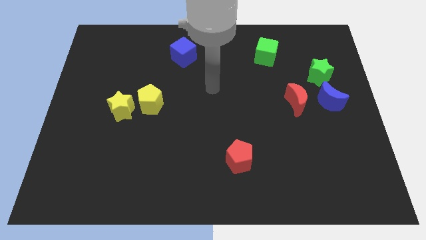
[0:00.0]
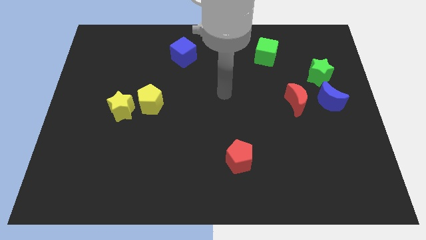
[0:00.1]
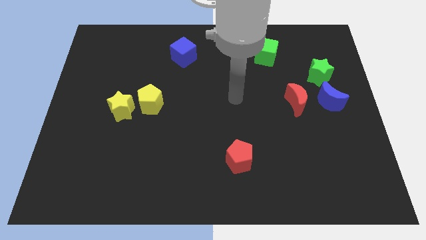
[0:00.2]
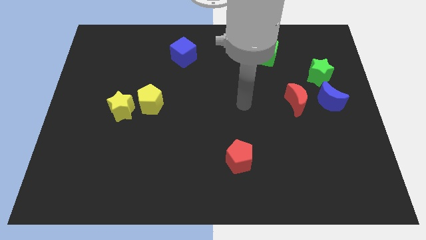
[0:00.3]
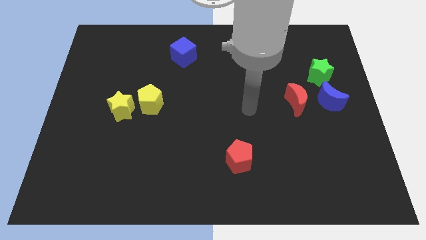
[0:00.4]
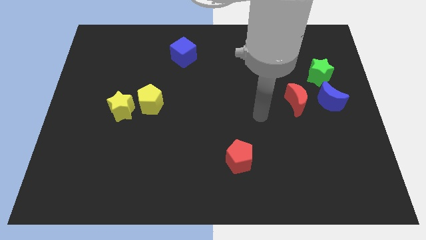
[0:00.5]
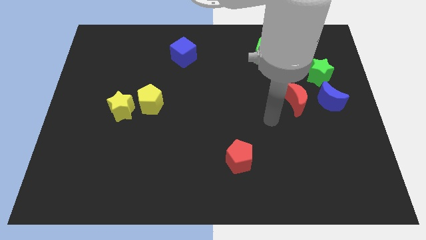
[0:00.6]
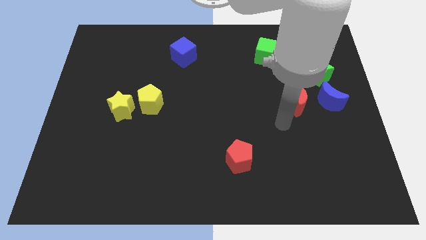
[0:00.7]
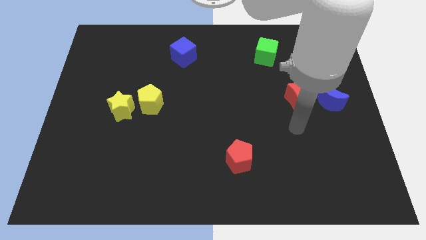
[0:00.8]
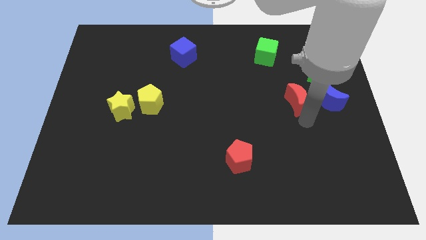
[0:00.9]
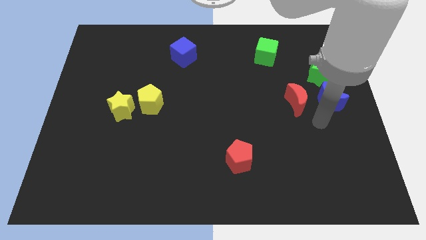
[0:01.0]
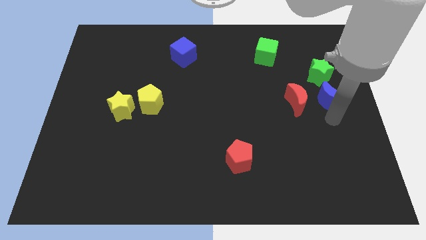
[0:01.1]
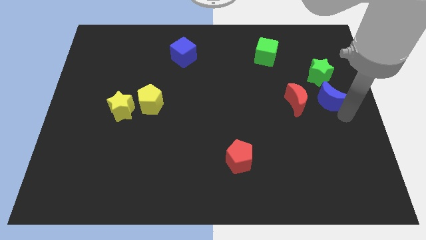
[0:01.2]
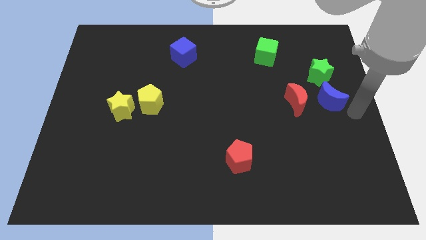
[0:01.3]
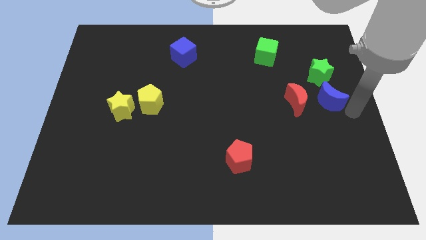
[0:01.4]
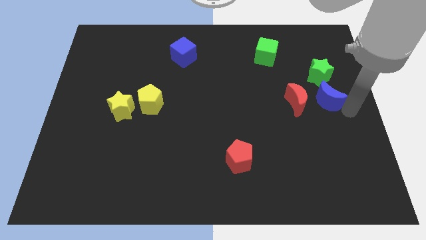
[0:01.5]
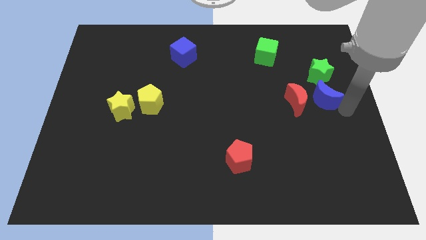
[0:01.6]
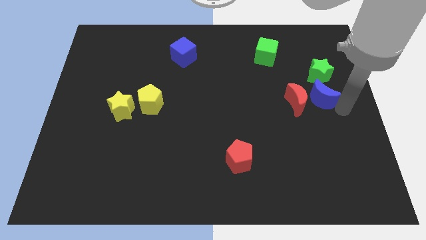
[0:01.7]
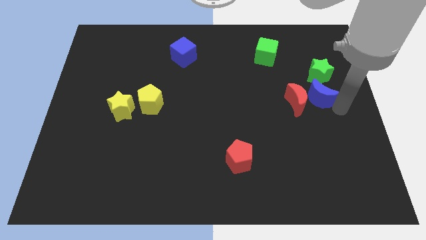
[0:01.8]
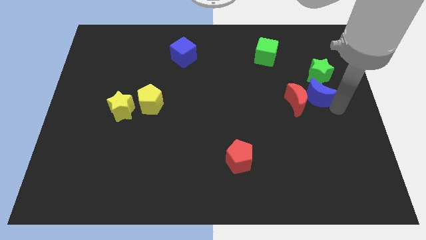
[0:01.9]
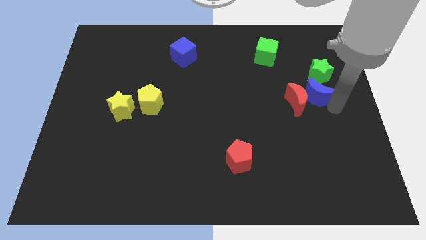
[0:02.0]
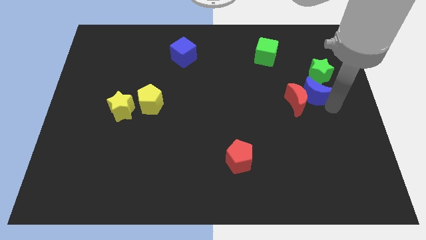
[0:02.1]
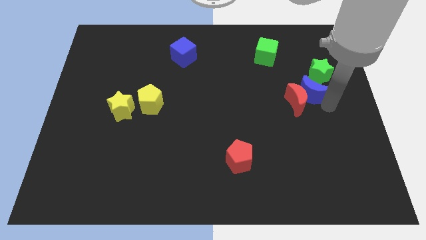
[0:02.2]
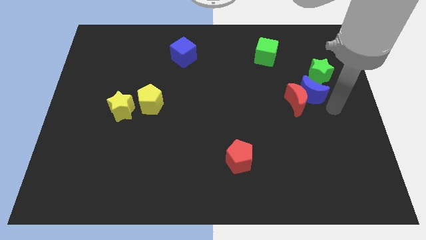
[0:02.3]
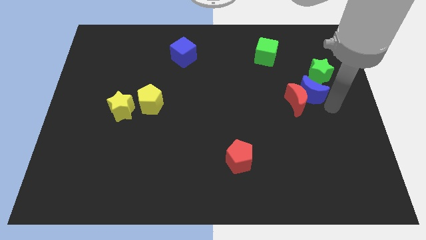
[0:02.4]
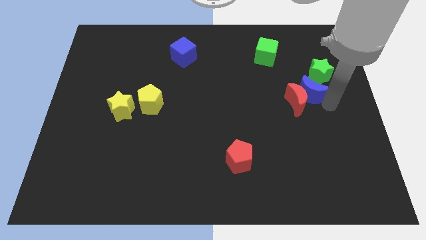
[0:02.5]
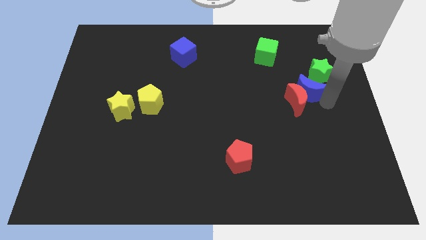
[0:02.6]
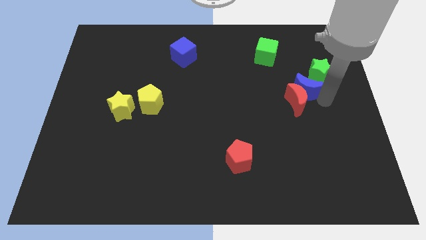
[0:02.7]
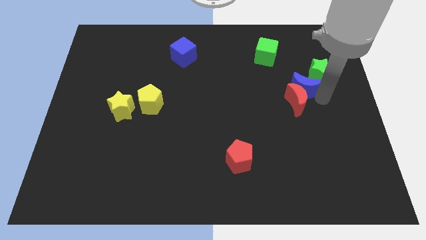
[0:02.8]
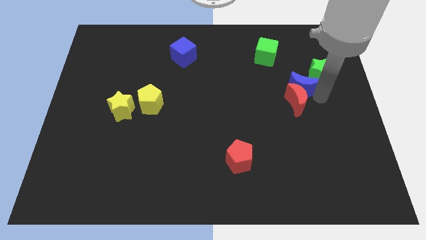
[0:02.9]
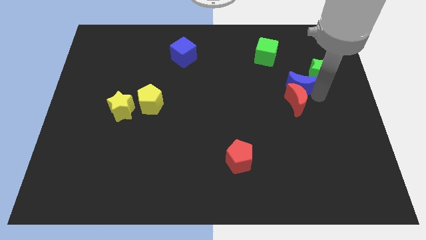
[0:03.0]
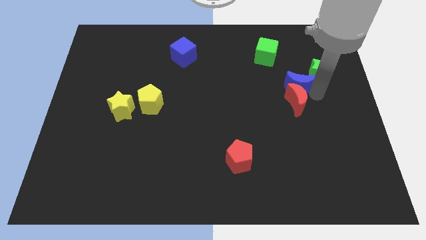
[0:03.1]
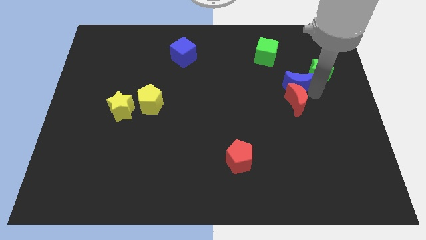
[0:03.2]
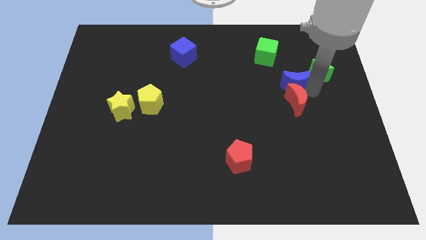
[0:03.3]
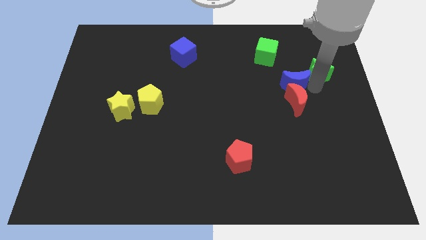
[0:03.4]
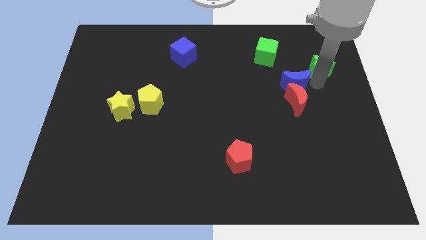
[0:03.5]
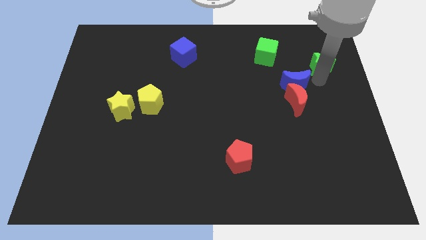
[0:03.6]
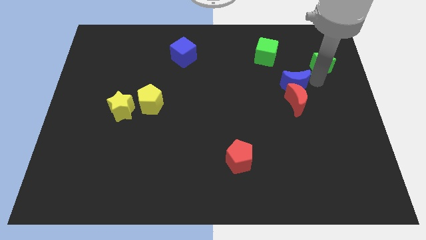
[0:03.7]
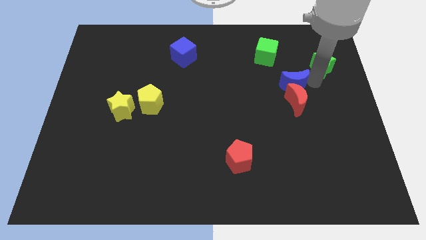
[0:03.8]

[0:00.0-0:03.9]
push the blue moon somewhat to the left

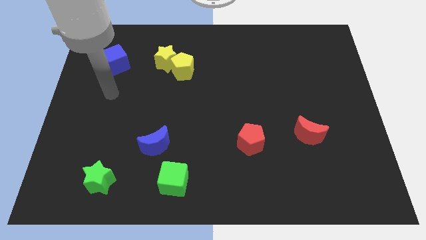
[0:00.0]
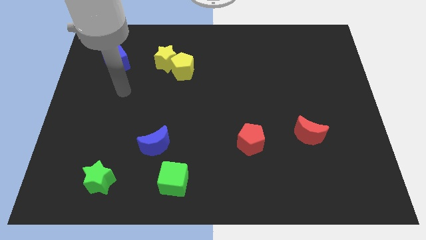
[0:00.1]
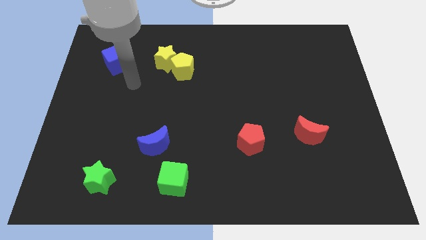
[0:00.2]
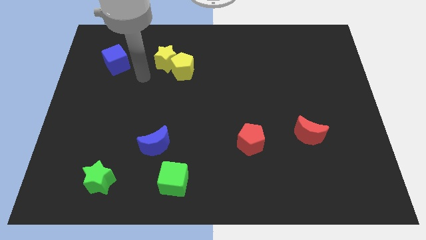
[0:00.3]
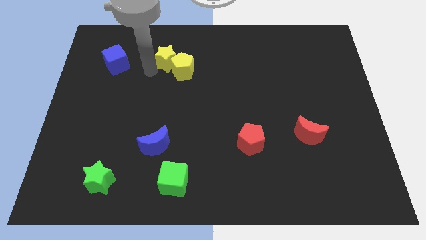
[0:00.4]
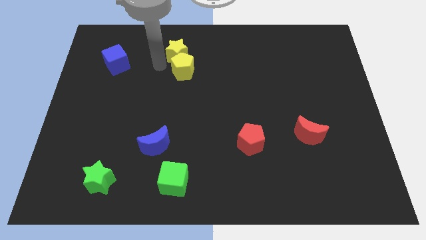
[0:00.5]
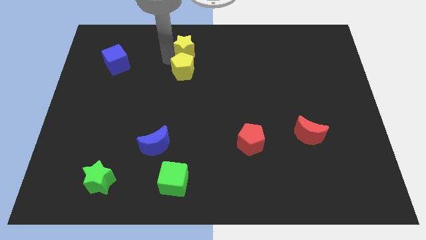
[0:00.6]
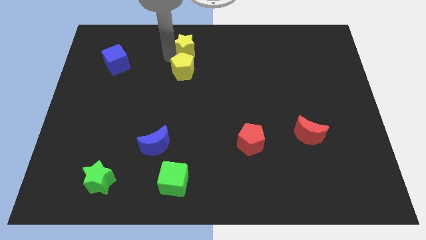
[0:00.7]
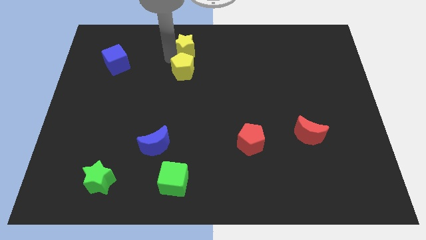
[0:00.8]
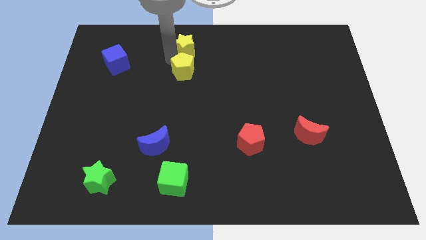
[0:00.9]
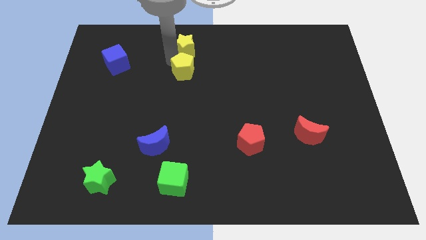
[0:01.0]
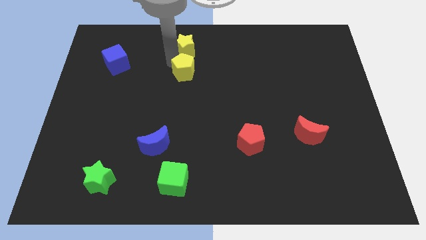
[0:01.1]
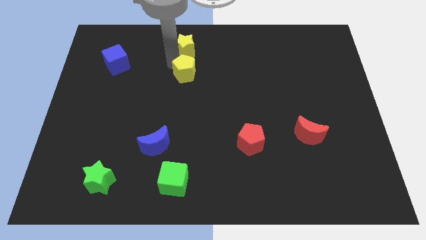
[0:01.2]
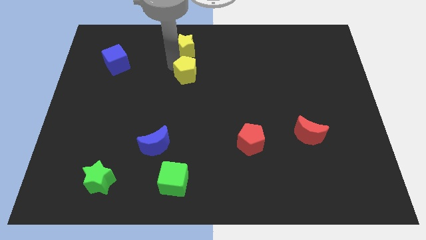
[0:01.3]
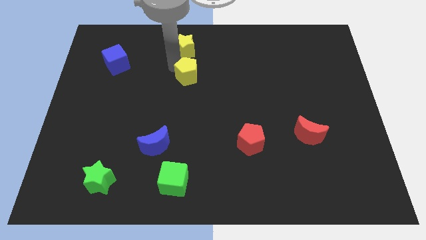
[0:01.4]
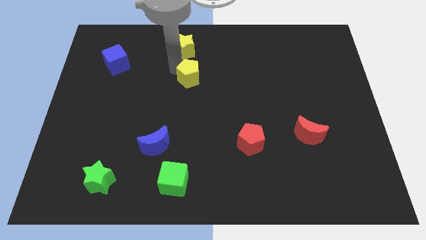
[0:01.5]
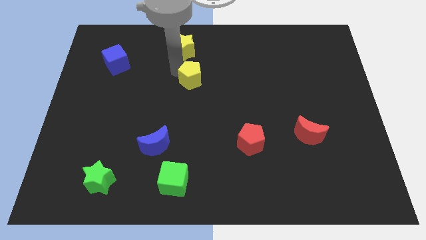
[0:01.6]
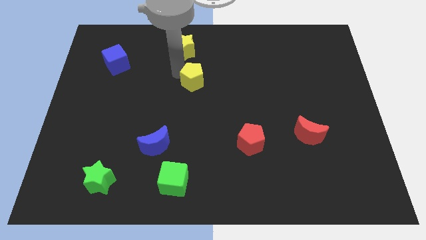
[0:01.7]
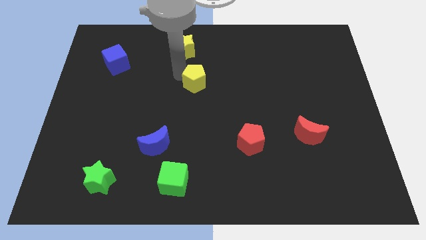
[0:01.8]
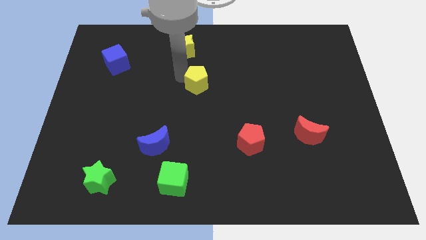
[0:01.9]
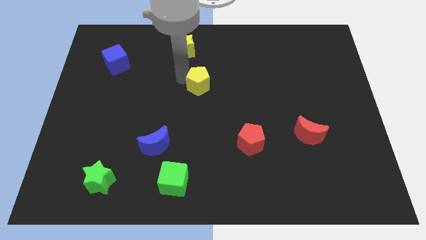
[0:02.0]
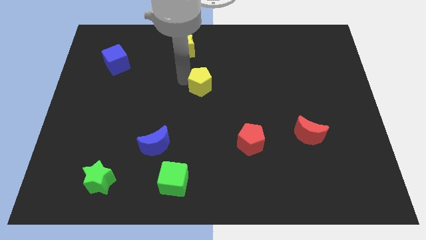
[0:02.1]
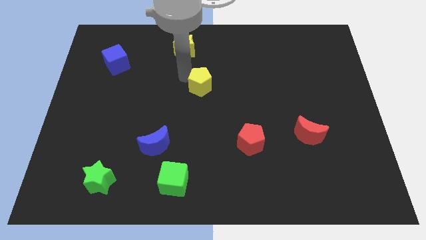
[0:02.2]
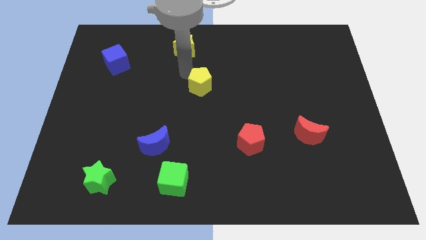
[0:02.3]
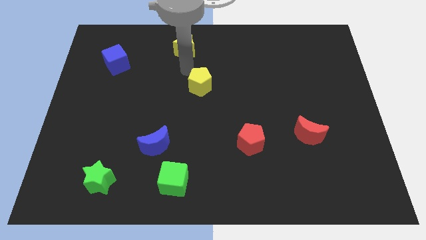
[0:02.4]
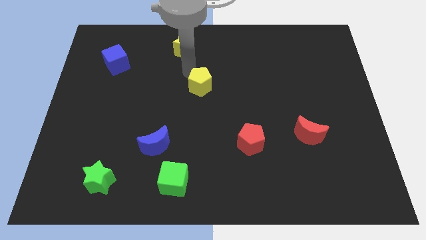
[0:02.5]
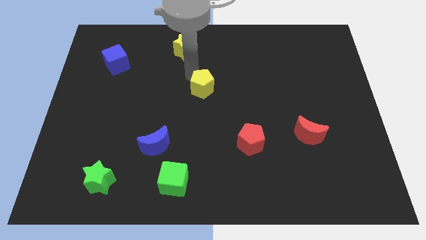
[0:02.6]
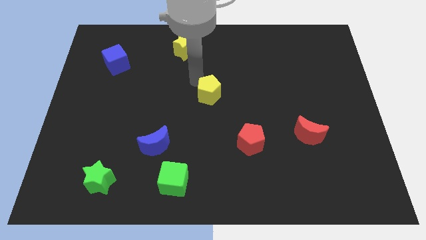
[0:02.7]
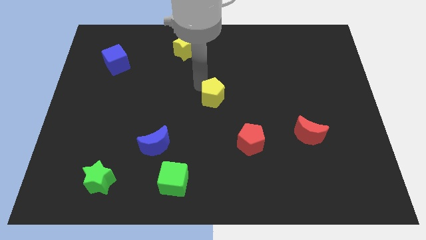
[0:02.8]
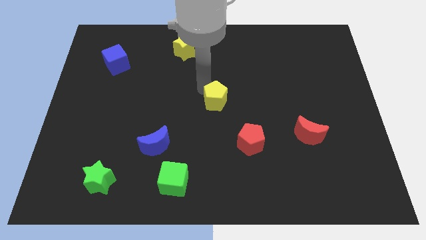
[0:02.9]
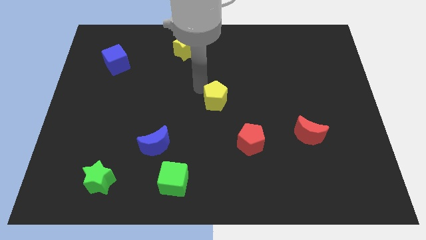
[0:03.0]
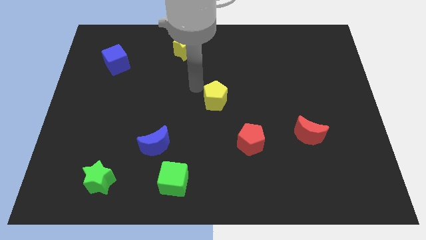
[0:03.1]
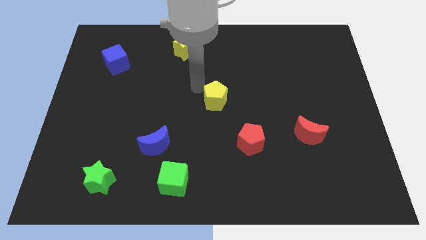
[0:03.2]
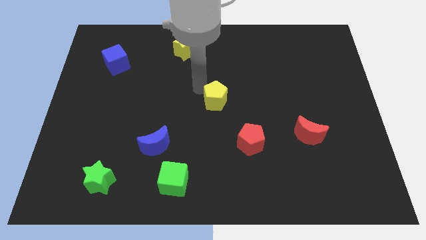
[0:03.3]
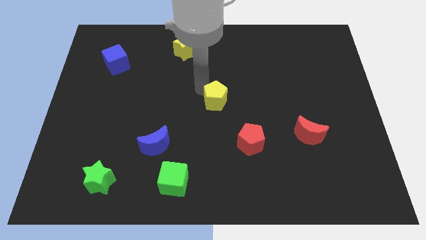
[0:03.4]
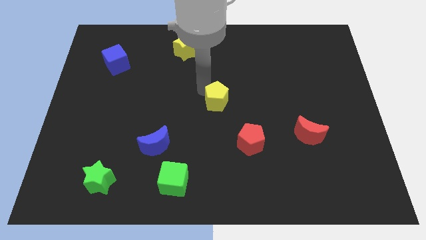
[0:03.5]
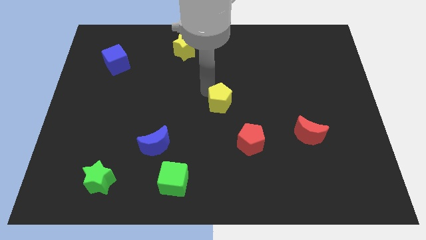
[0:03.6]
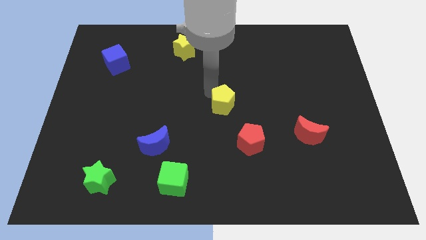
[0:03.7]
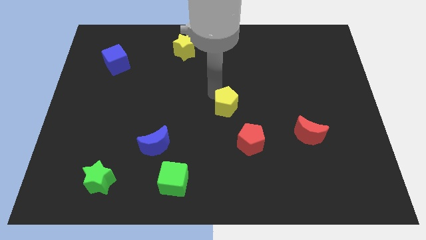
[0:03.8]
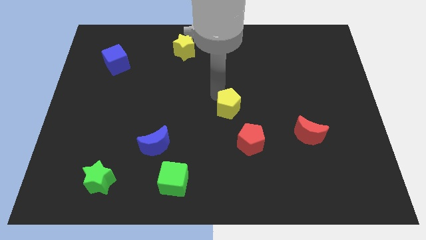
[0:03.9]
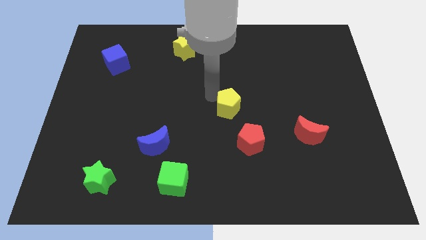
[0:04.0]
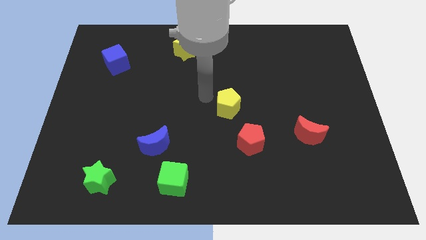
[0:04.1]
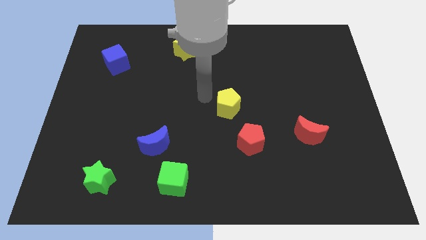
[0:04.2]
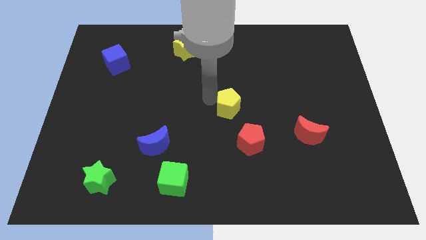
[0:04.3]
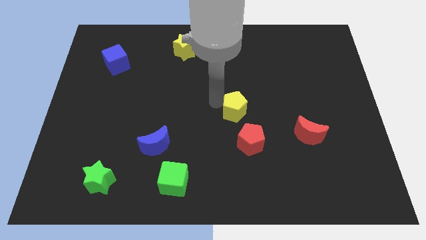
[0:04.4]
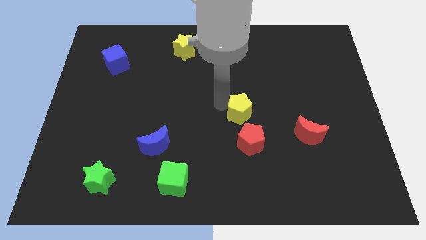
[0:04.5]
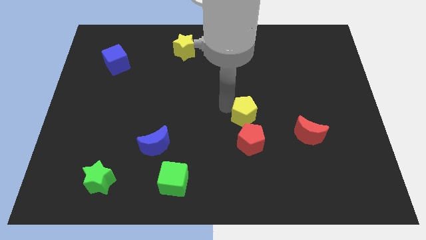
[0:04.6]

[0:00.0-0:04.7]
move the yellow pentagon downwards and to the right diagonally
